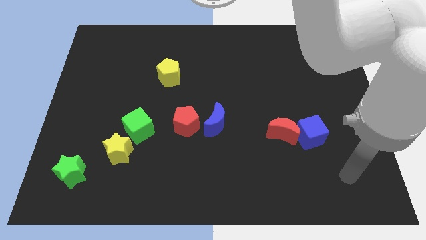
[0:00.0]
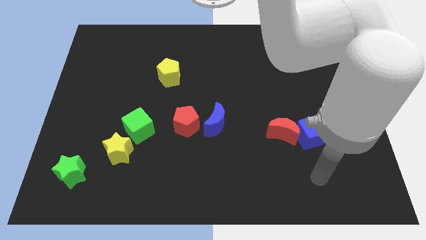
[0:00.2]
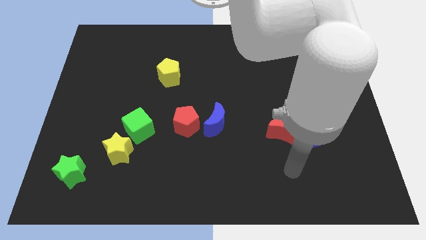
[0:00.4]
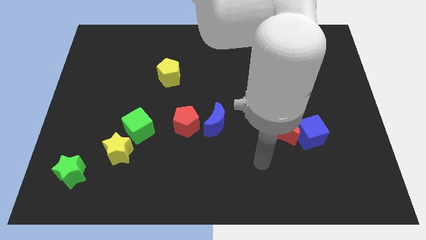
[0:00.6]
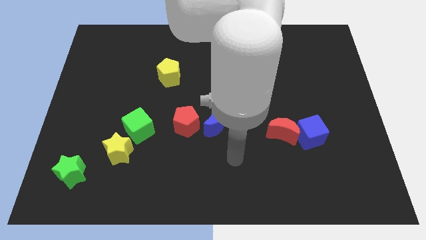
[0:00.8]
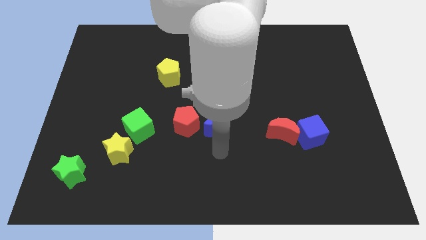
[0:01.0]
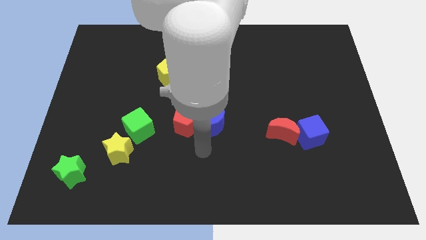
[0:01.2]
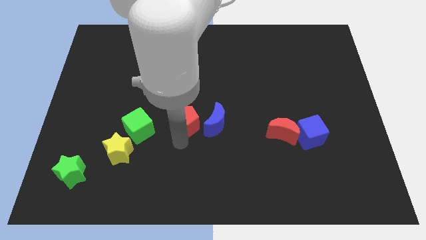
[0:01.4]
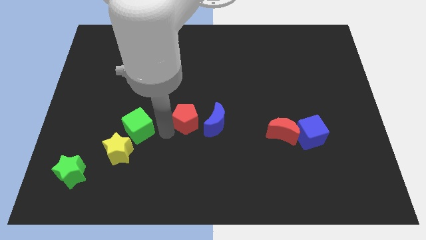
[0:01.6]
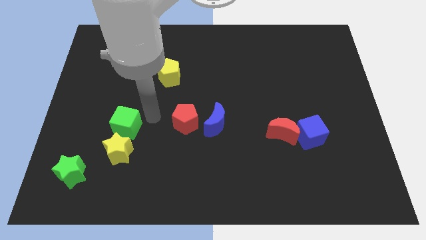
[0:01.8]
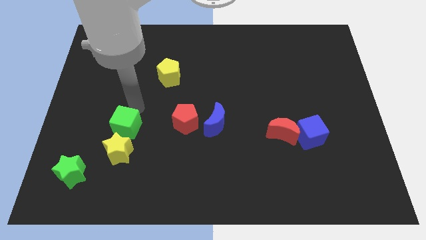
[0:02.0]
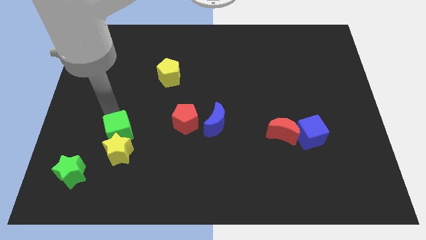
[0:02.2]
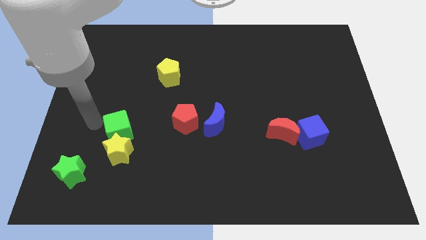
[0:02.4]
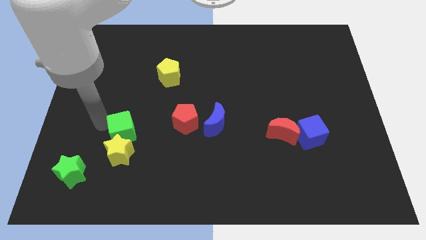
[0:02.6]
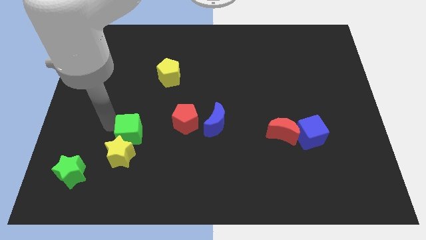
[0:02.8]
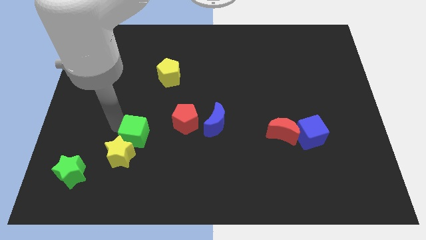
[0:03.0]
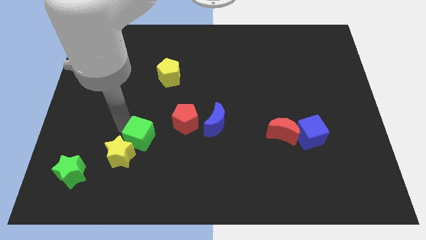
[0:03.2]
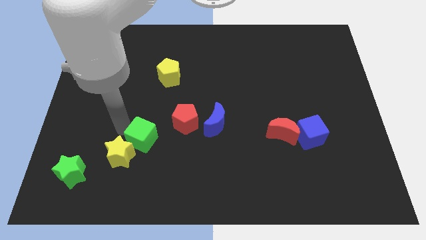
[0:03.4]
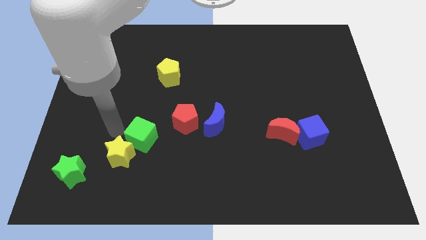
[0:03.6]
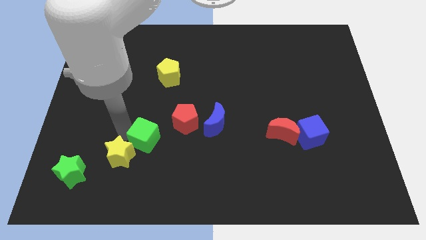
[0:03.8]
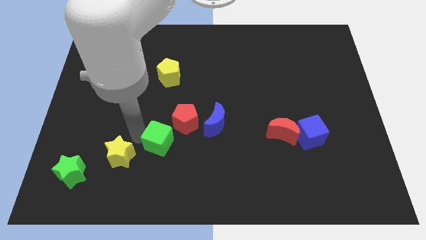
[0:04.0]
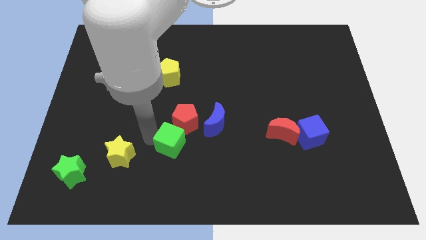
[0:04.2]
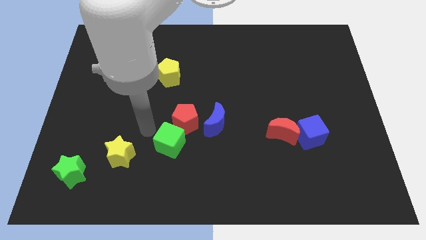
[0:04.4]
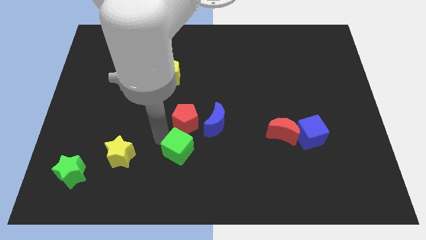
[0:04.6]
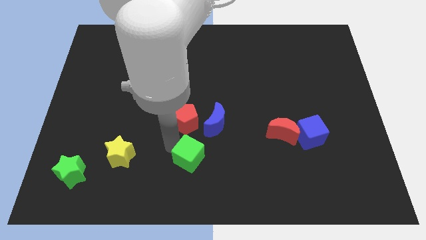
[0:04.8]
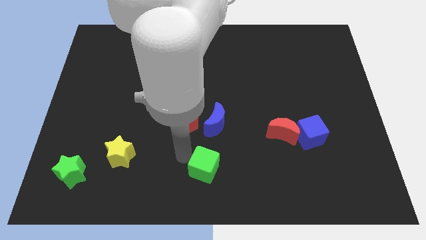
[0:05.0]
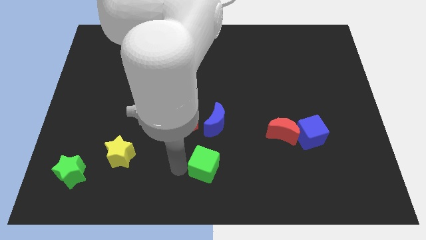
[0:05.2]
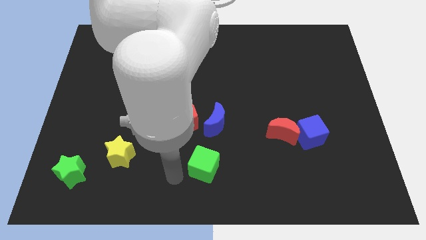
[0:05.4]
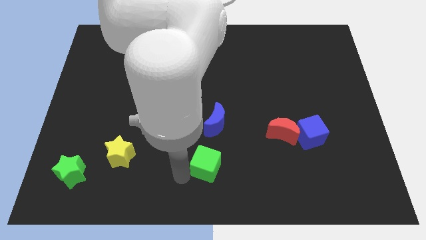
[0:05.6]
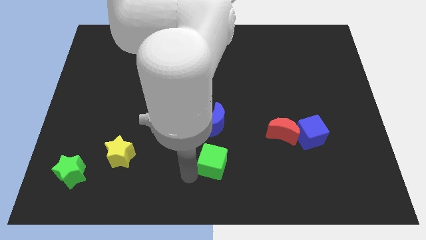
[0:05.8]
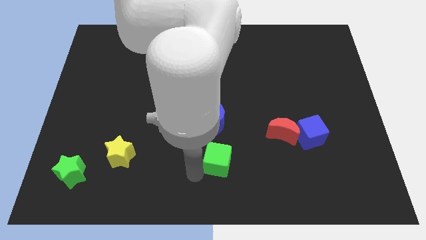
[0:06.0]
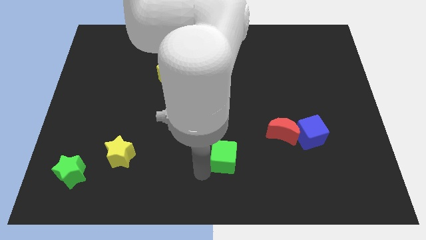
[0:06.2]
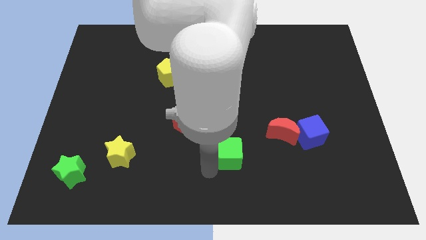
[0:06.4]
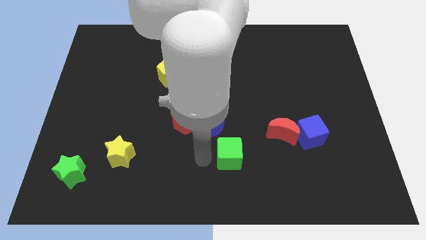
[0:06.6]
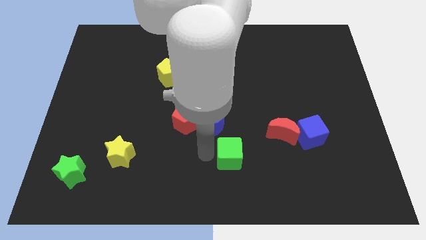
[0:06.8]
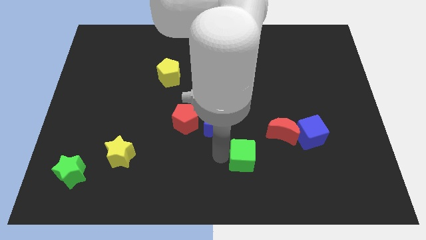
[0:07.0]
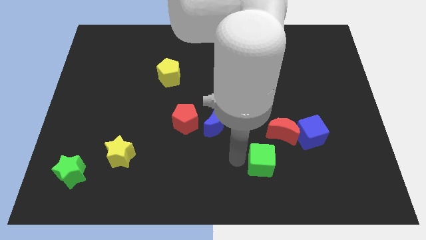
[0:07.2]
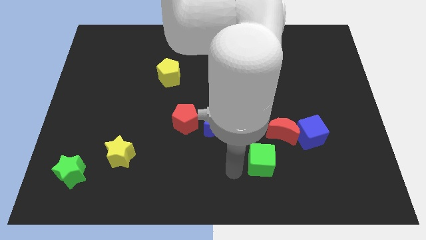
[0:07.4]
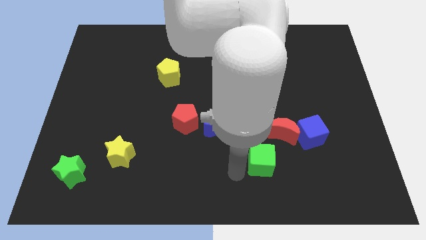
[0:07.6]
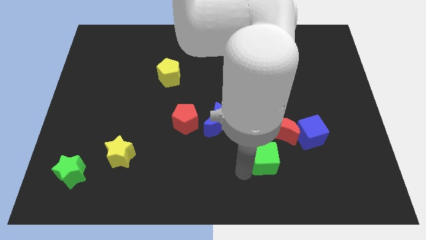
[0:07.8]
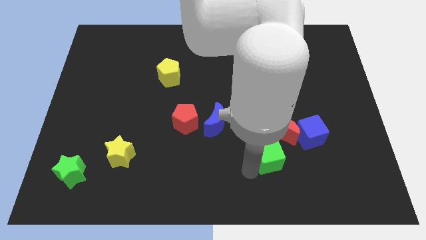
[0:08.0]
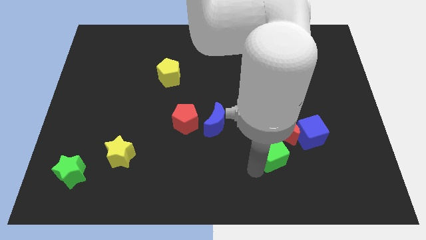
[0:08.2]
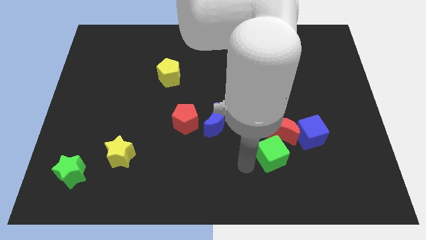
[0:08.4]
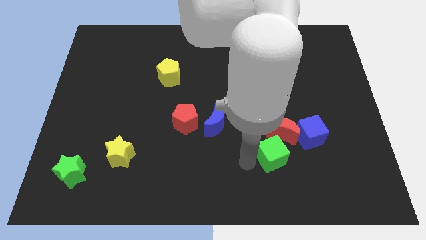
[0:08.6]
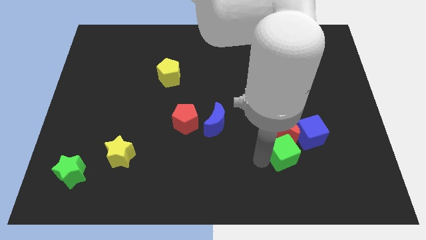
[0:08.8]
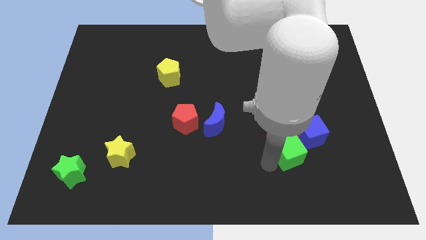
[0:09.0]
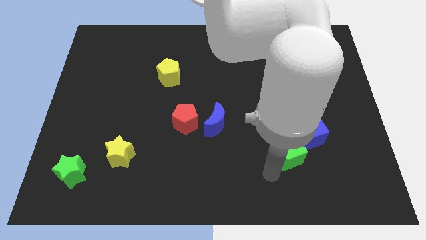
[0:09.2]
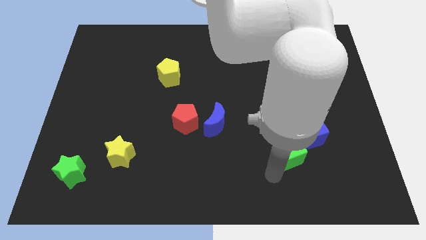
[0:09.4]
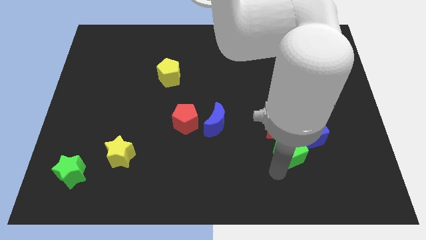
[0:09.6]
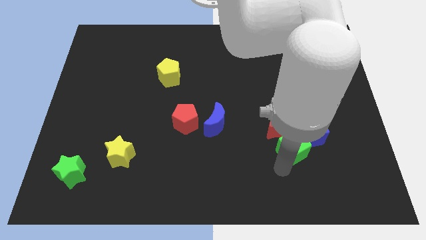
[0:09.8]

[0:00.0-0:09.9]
push the green cube next to the blue cube

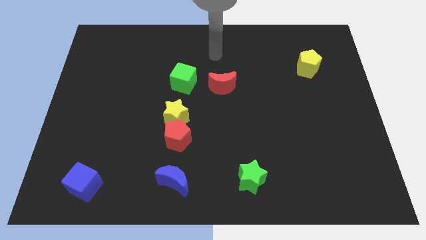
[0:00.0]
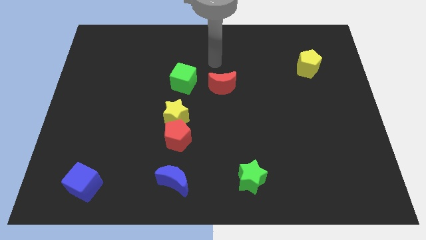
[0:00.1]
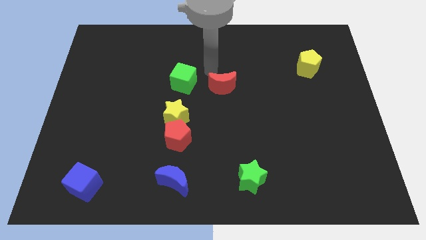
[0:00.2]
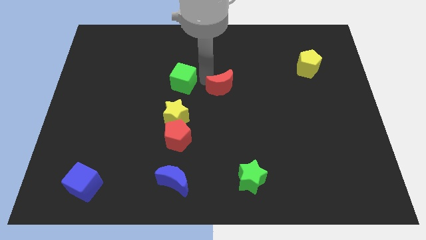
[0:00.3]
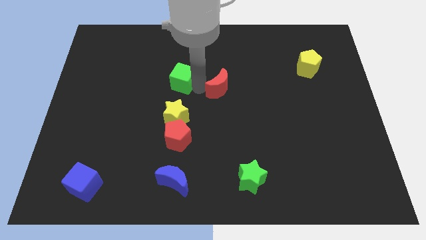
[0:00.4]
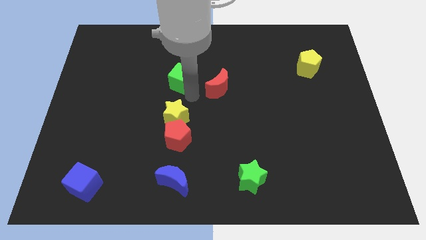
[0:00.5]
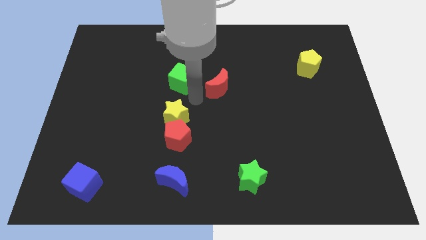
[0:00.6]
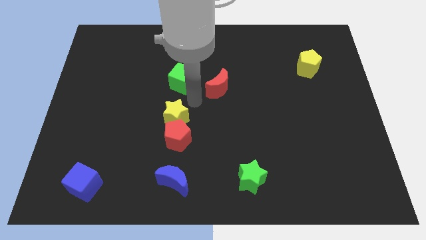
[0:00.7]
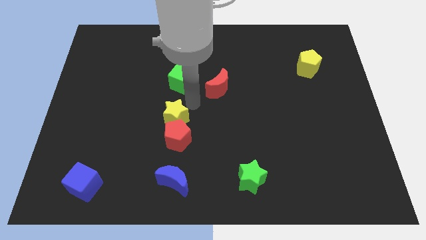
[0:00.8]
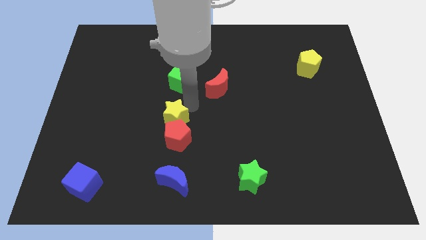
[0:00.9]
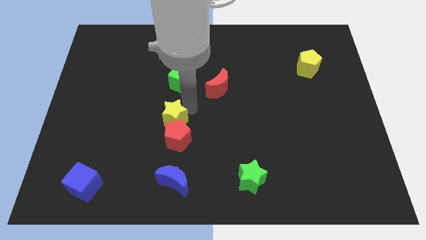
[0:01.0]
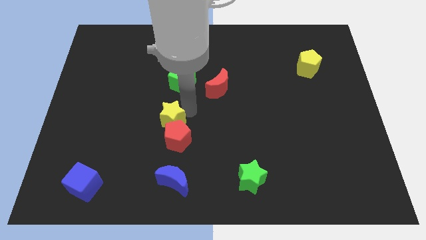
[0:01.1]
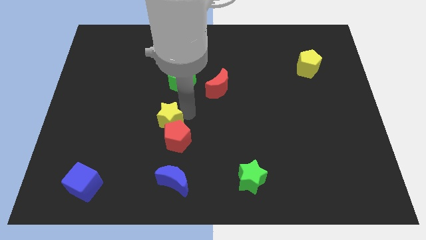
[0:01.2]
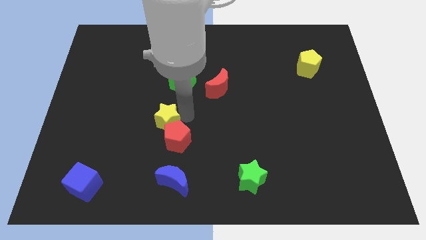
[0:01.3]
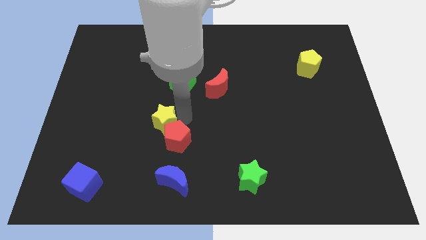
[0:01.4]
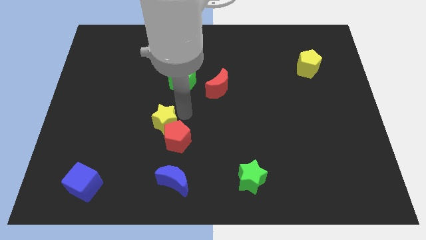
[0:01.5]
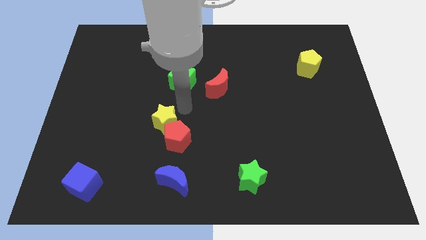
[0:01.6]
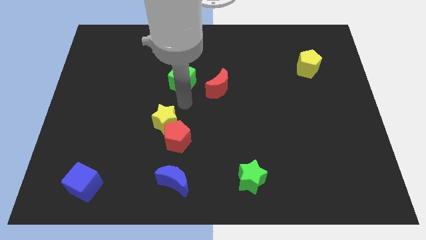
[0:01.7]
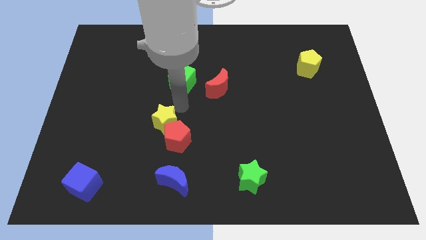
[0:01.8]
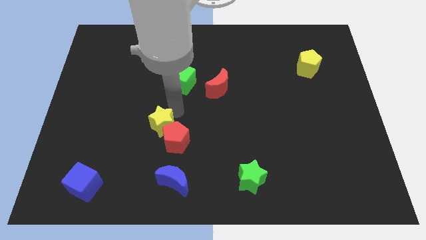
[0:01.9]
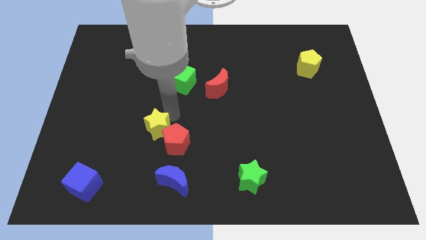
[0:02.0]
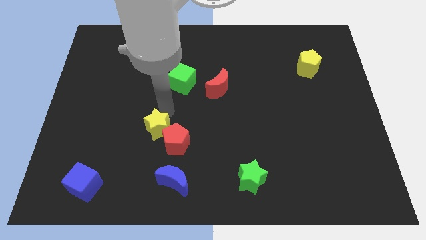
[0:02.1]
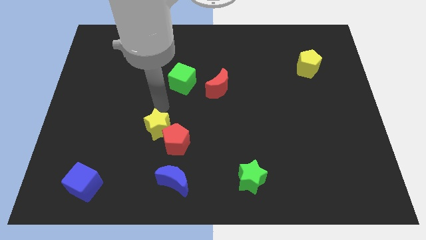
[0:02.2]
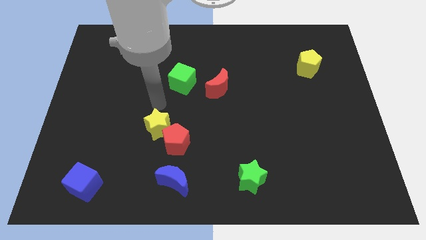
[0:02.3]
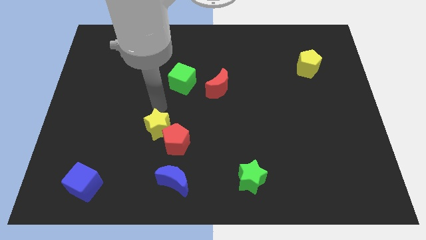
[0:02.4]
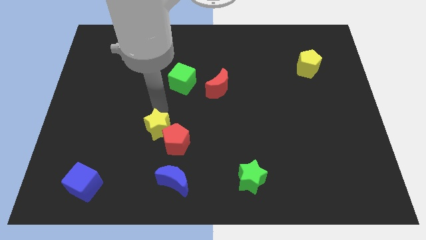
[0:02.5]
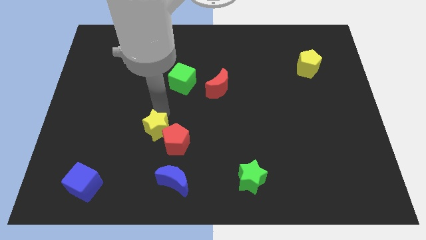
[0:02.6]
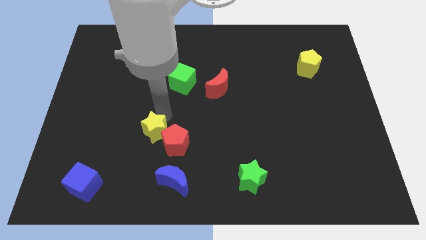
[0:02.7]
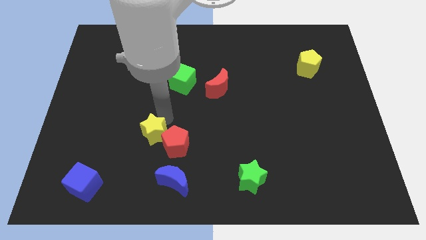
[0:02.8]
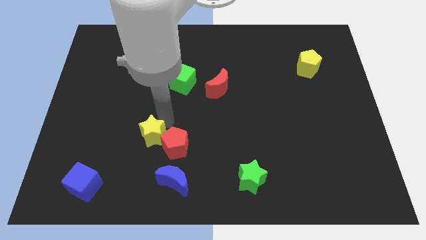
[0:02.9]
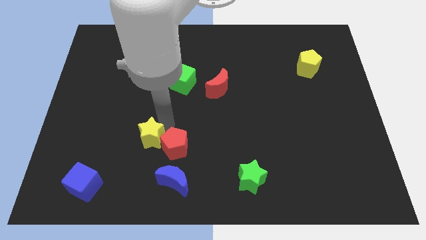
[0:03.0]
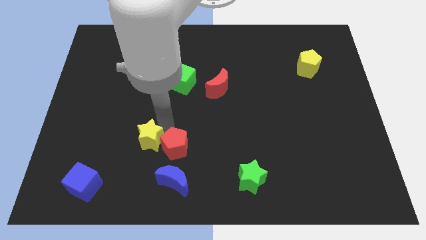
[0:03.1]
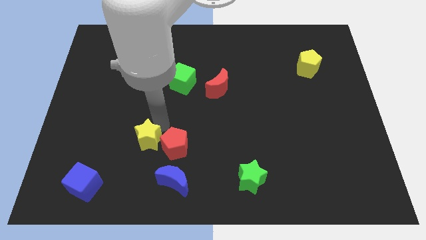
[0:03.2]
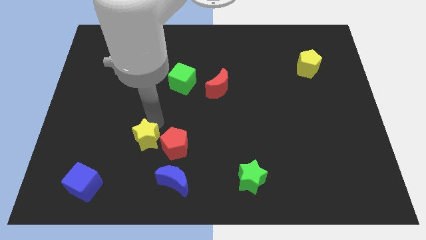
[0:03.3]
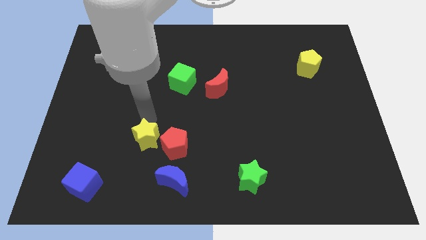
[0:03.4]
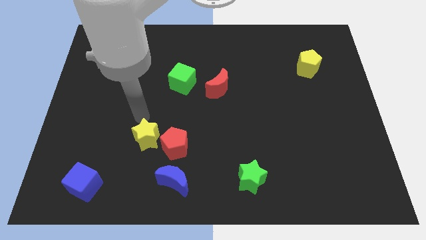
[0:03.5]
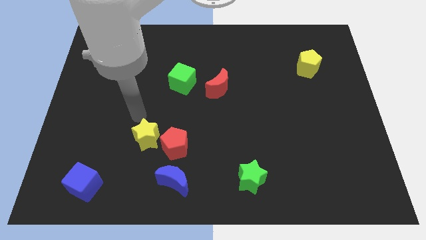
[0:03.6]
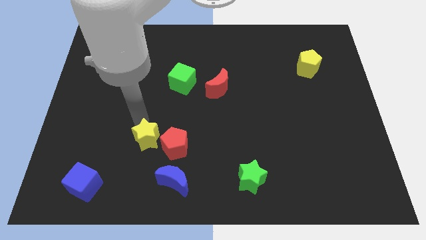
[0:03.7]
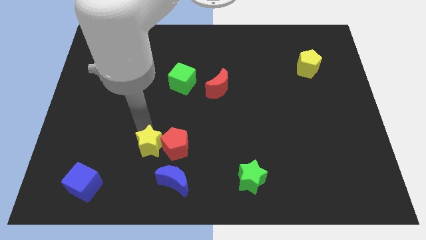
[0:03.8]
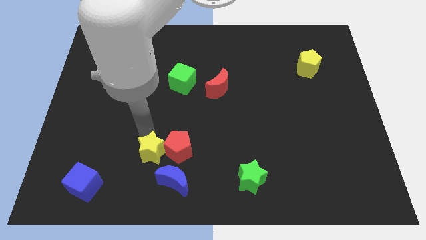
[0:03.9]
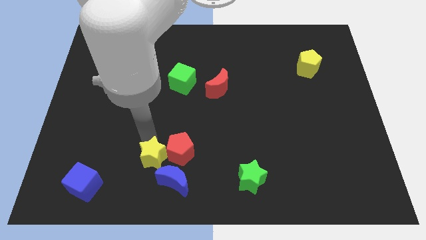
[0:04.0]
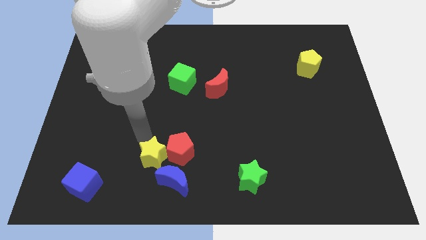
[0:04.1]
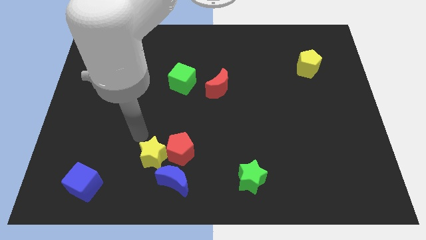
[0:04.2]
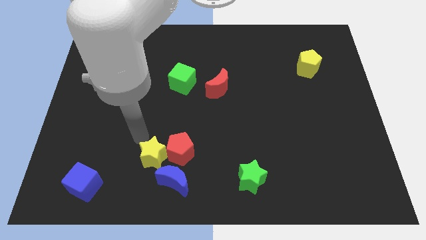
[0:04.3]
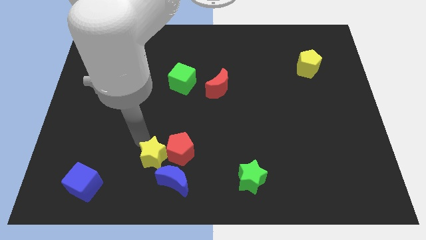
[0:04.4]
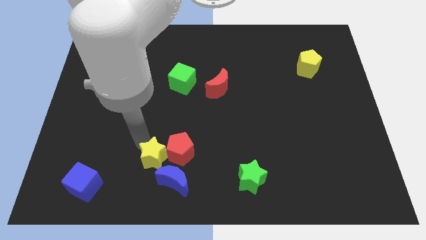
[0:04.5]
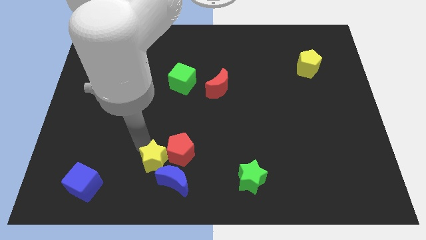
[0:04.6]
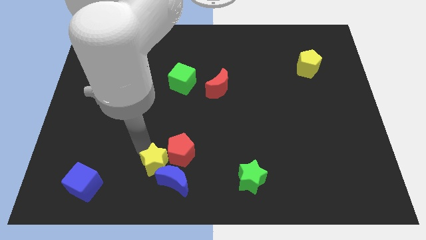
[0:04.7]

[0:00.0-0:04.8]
move the yellow star next to the blue moon
